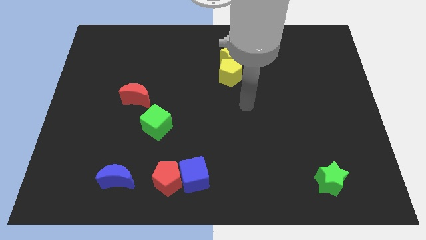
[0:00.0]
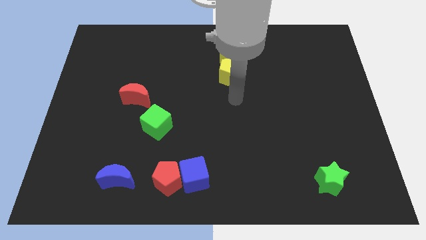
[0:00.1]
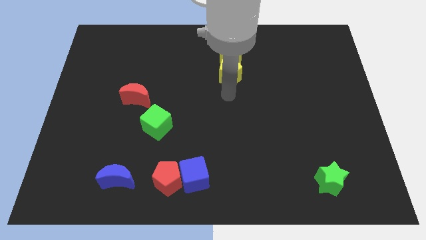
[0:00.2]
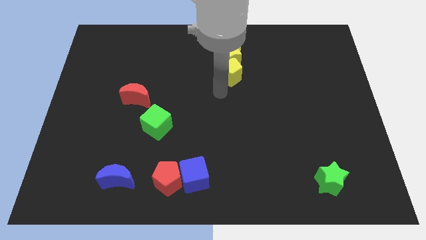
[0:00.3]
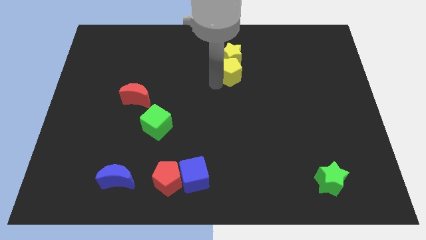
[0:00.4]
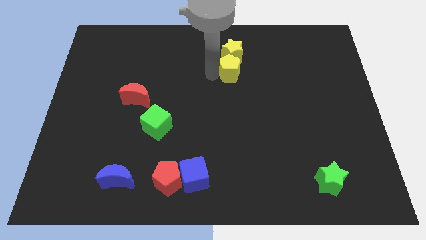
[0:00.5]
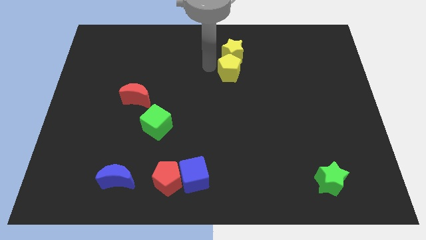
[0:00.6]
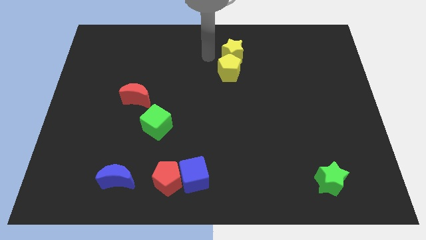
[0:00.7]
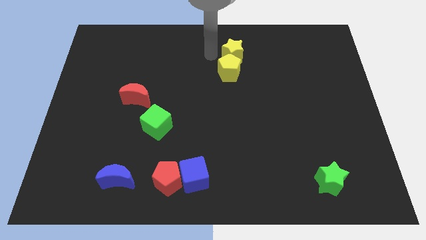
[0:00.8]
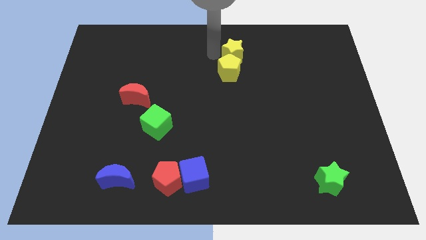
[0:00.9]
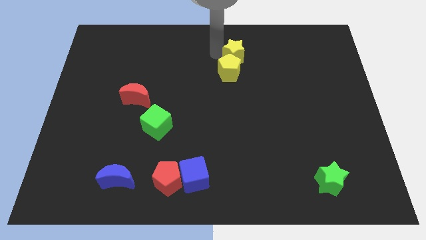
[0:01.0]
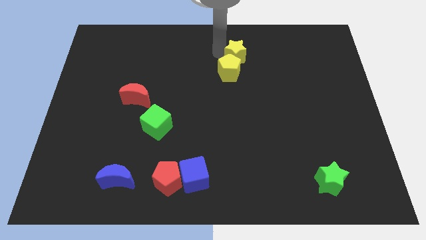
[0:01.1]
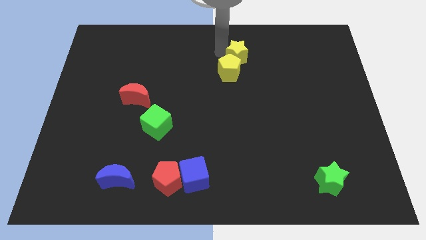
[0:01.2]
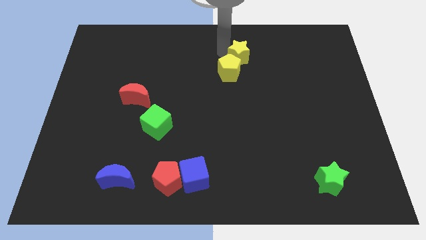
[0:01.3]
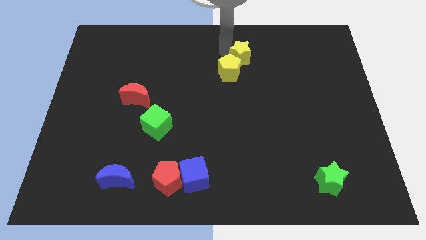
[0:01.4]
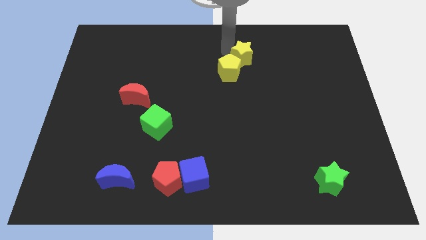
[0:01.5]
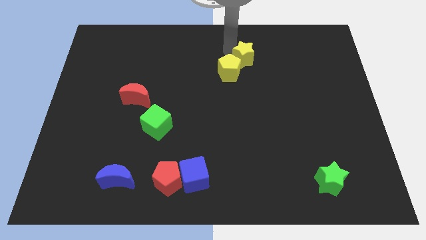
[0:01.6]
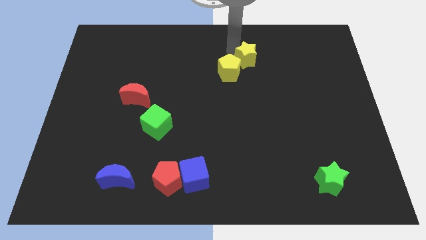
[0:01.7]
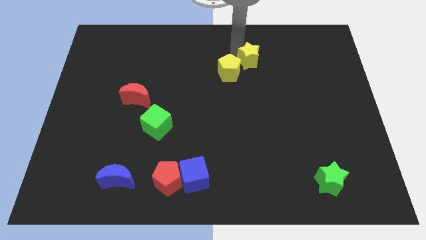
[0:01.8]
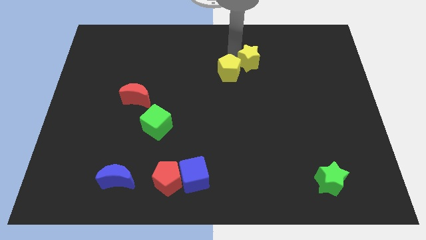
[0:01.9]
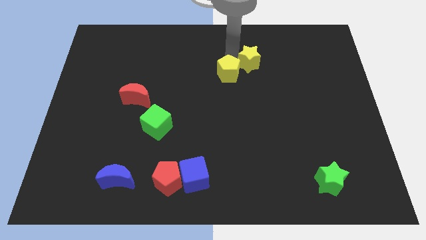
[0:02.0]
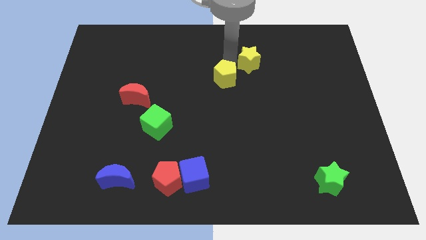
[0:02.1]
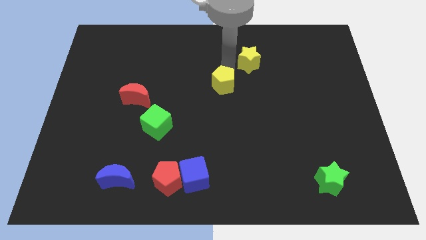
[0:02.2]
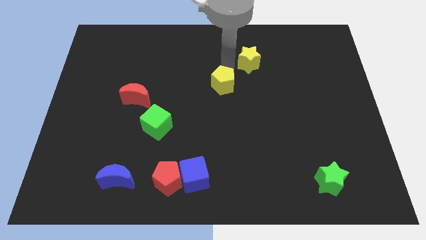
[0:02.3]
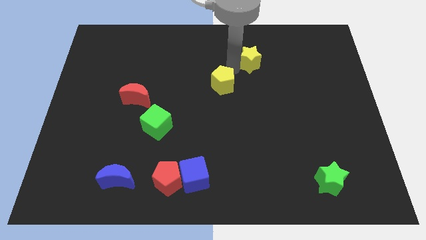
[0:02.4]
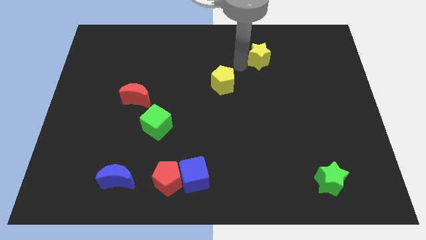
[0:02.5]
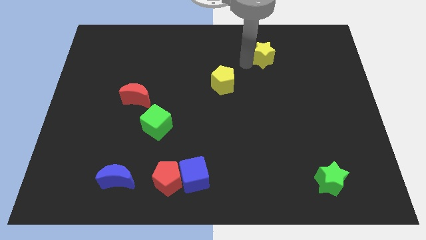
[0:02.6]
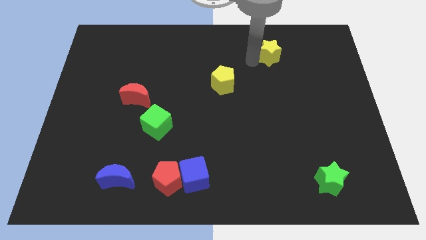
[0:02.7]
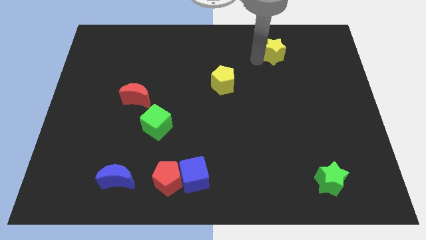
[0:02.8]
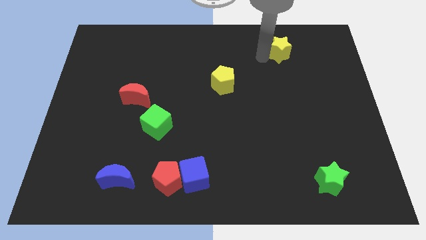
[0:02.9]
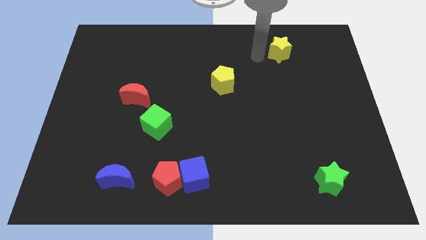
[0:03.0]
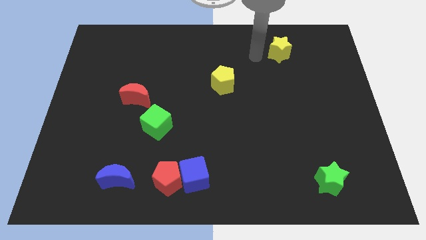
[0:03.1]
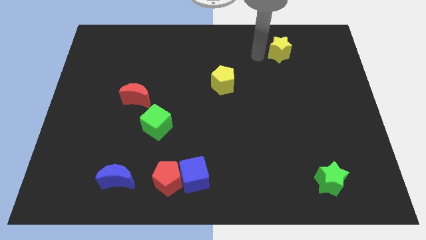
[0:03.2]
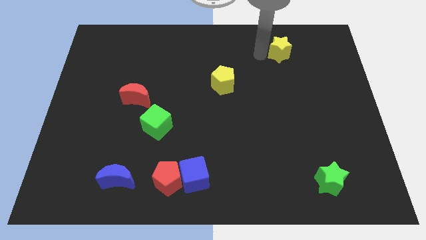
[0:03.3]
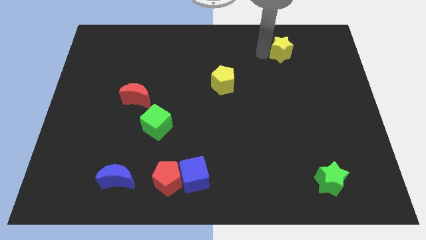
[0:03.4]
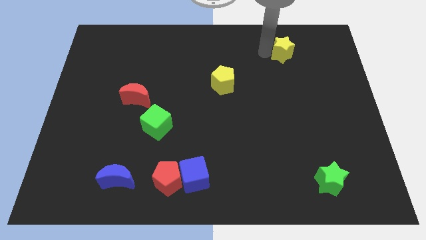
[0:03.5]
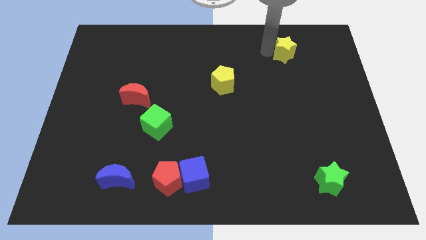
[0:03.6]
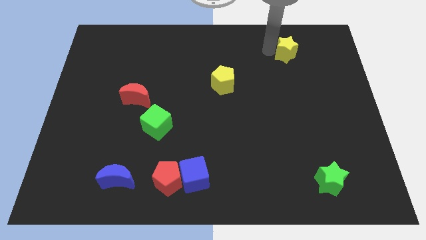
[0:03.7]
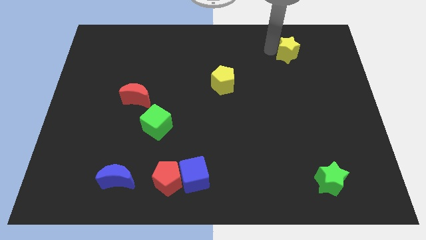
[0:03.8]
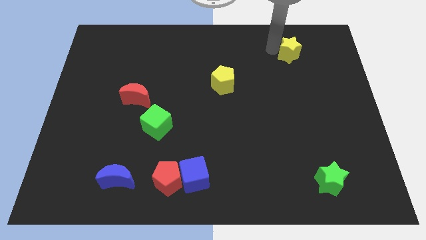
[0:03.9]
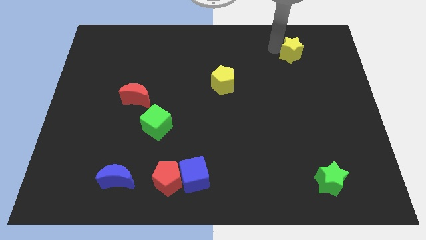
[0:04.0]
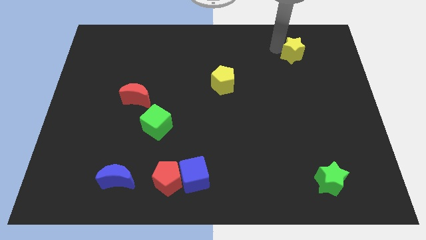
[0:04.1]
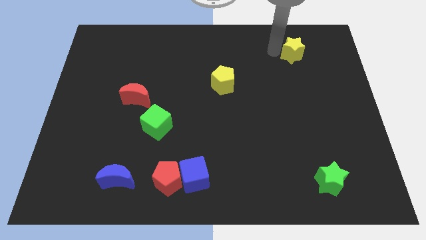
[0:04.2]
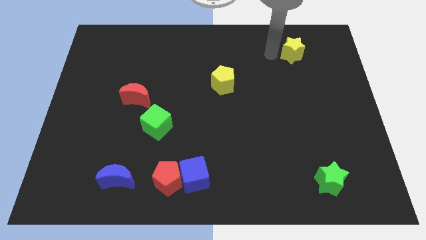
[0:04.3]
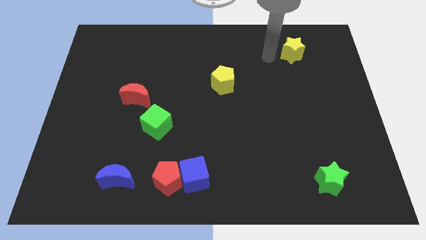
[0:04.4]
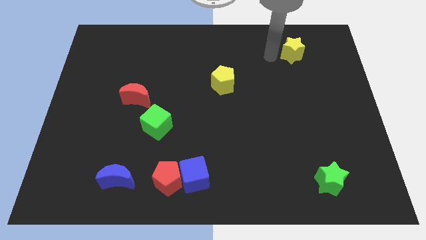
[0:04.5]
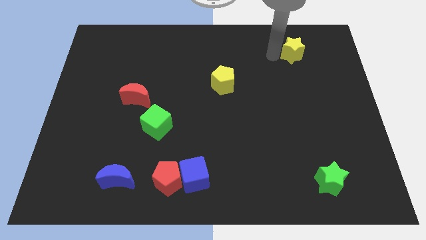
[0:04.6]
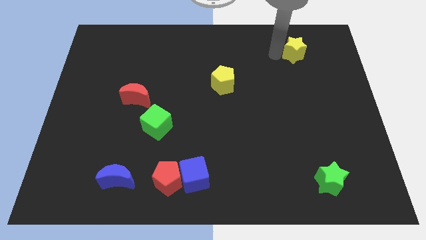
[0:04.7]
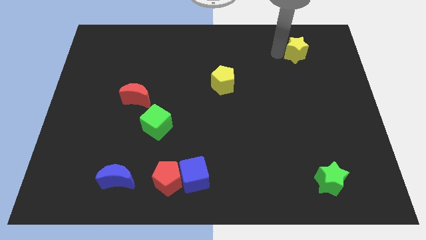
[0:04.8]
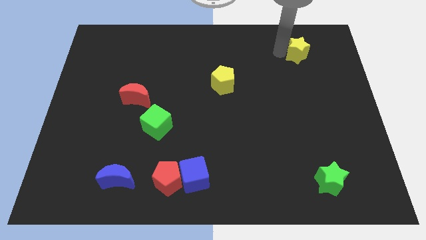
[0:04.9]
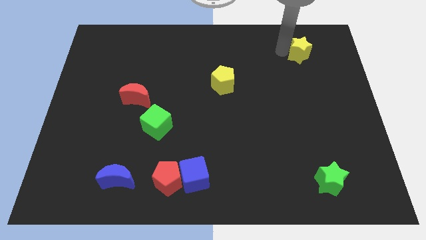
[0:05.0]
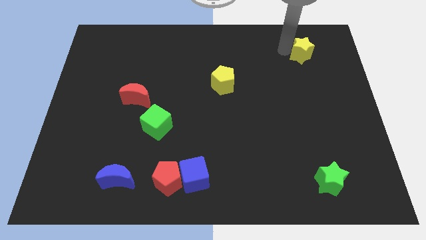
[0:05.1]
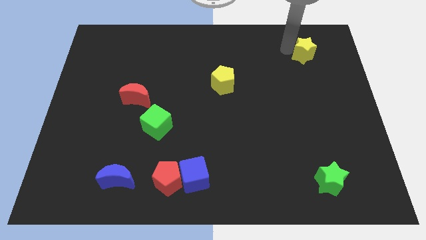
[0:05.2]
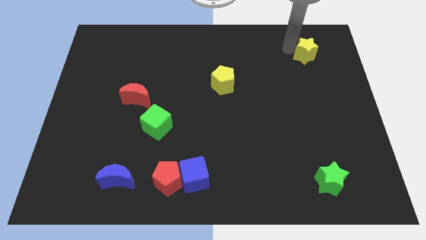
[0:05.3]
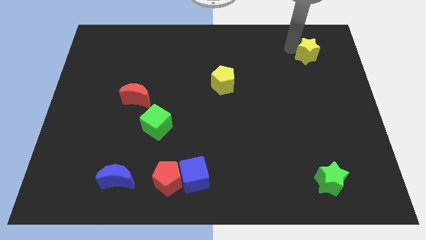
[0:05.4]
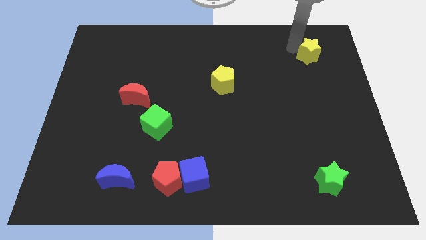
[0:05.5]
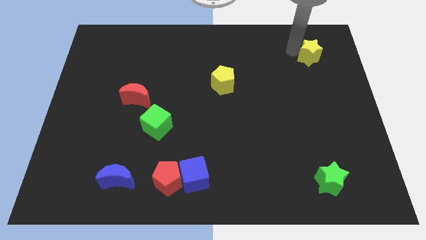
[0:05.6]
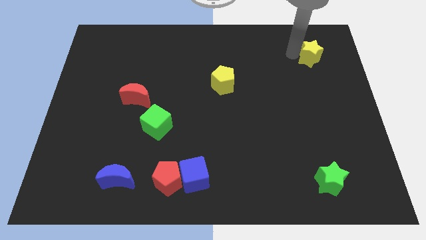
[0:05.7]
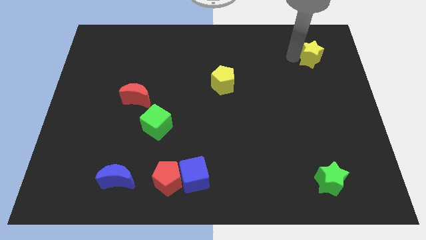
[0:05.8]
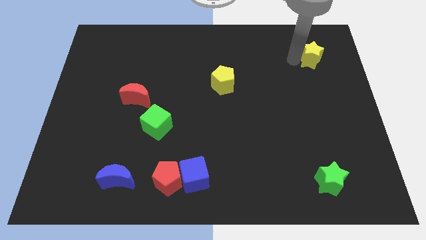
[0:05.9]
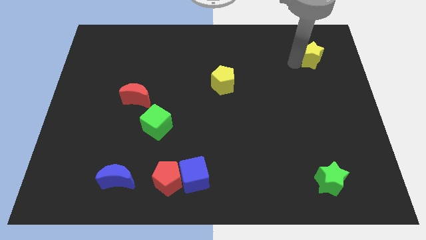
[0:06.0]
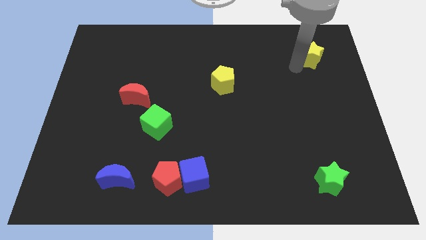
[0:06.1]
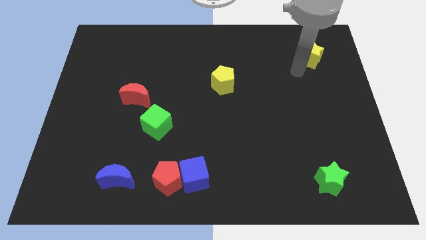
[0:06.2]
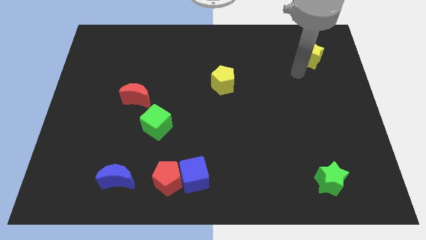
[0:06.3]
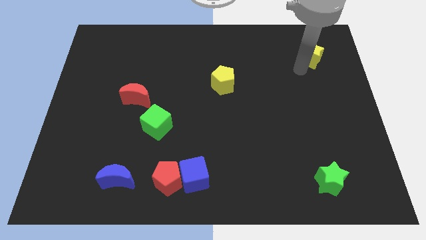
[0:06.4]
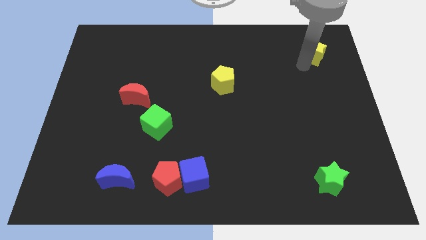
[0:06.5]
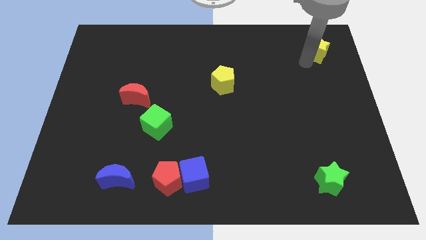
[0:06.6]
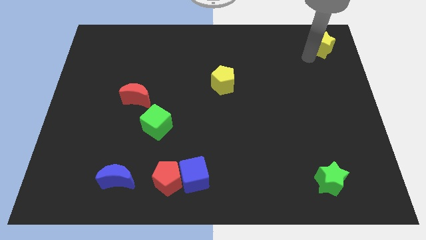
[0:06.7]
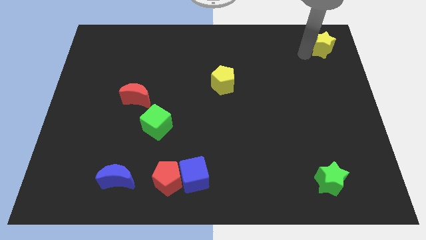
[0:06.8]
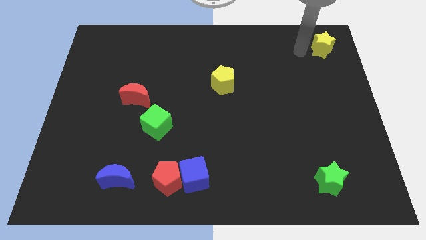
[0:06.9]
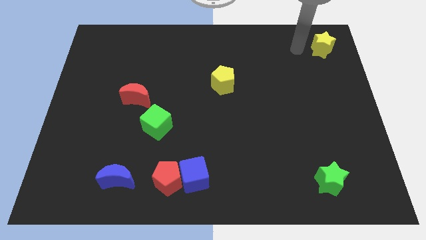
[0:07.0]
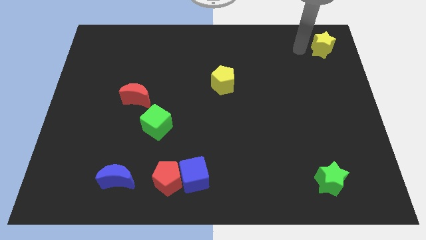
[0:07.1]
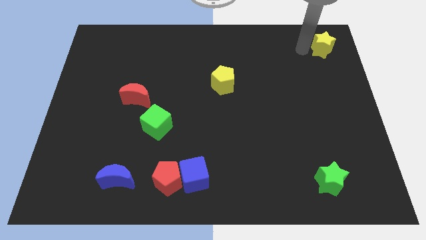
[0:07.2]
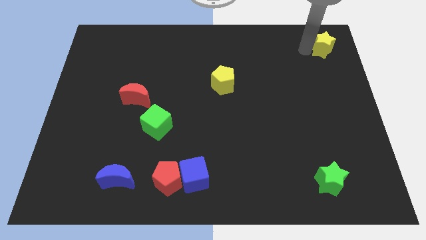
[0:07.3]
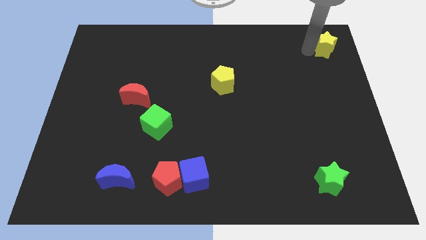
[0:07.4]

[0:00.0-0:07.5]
move the yellow star to the top right
